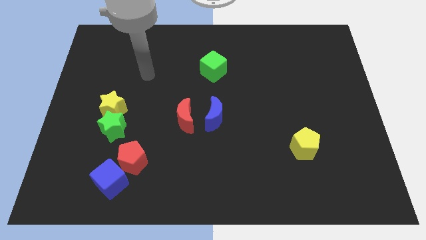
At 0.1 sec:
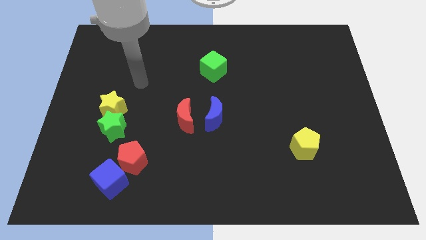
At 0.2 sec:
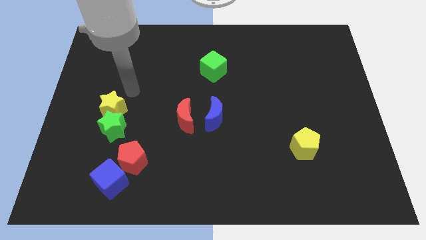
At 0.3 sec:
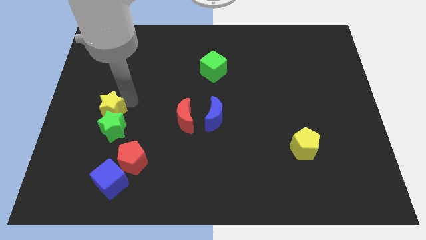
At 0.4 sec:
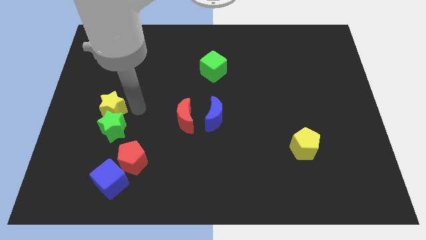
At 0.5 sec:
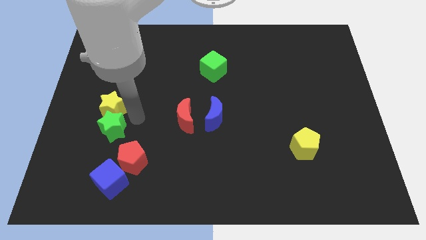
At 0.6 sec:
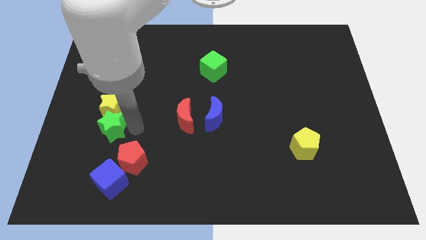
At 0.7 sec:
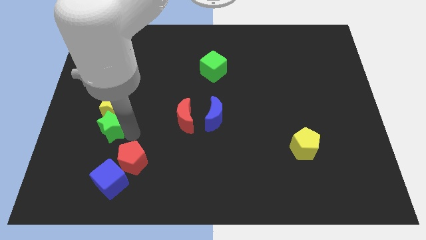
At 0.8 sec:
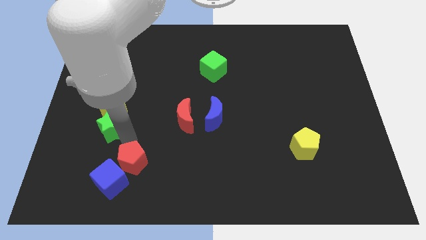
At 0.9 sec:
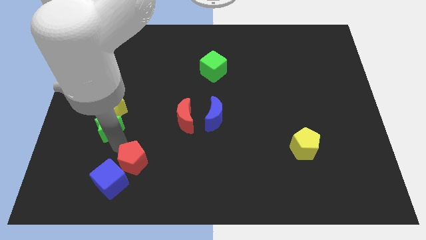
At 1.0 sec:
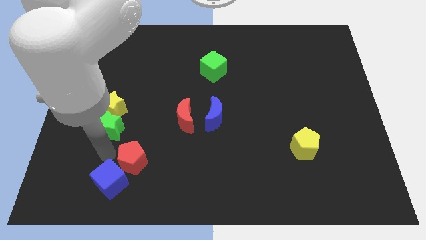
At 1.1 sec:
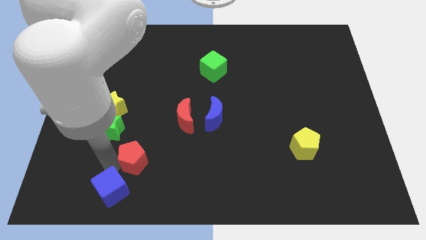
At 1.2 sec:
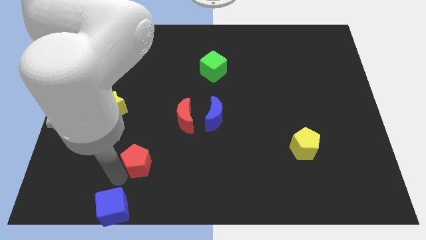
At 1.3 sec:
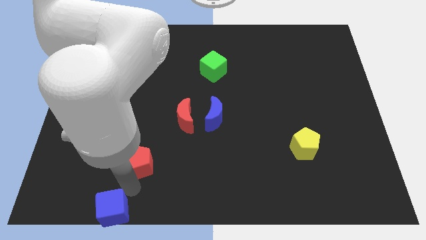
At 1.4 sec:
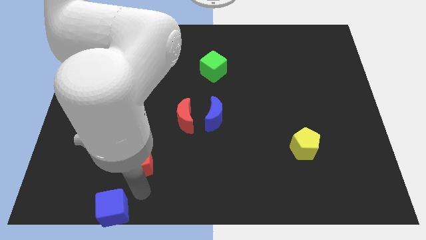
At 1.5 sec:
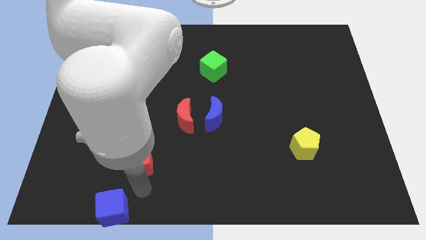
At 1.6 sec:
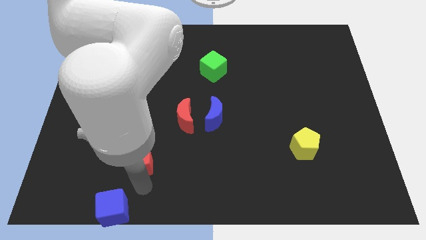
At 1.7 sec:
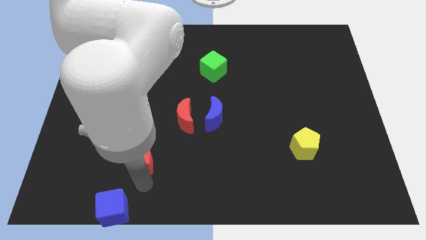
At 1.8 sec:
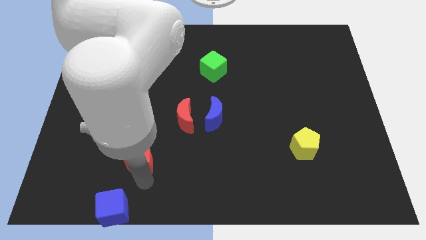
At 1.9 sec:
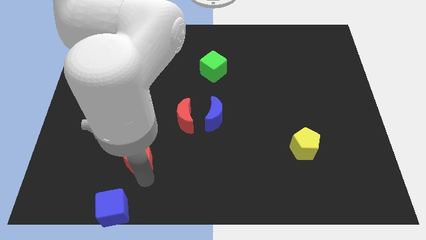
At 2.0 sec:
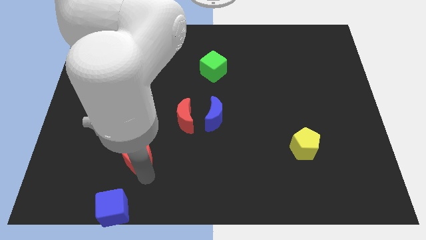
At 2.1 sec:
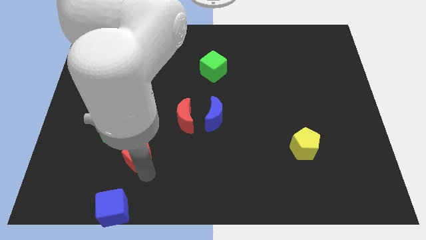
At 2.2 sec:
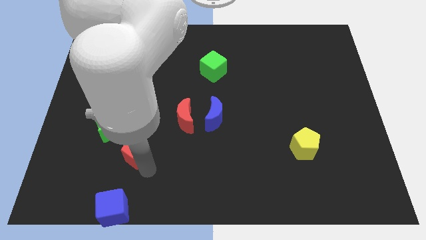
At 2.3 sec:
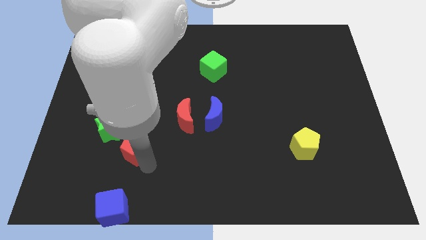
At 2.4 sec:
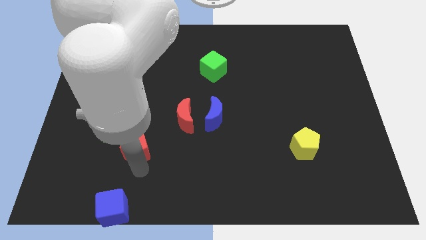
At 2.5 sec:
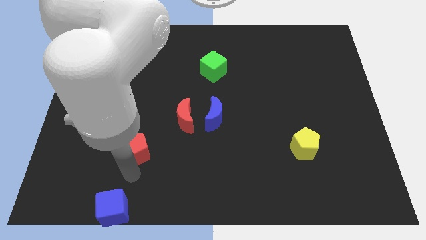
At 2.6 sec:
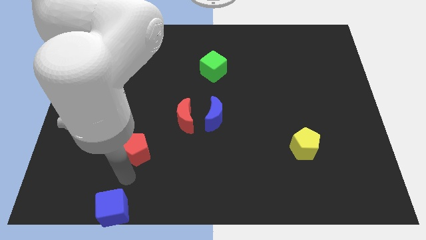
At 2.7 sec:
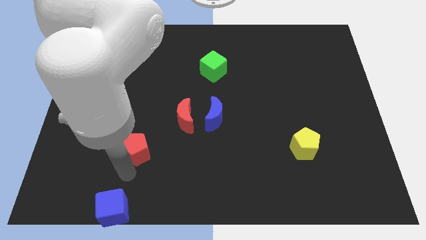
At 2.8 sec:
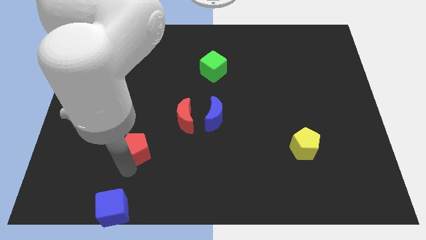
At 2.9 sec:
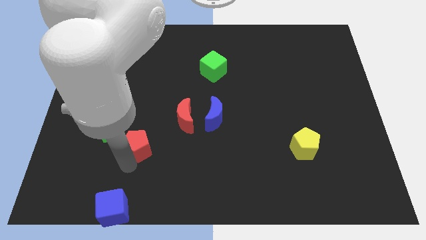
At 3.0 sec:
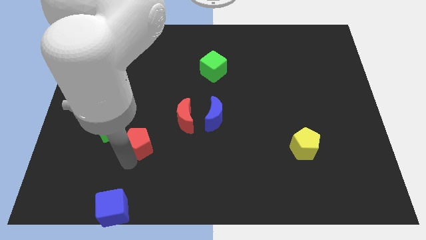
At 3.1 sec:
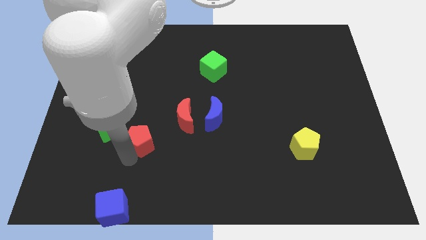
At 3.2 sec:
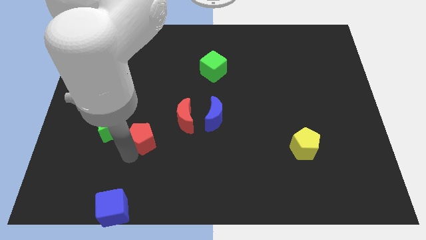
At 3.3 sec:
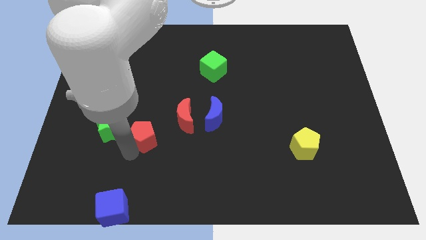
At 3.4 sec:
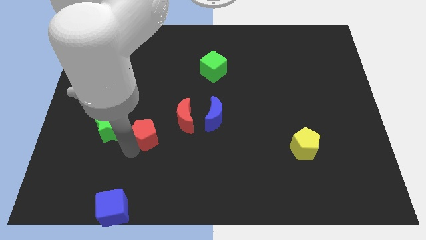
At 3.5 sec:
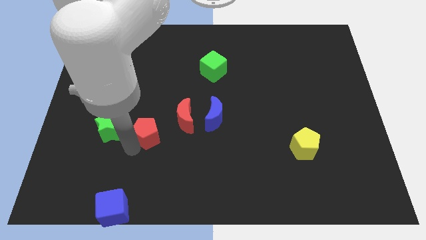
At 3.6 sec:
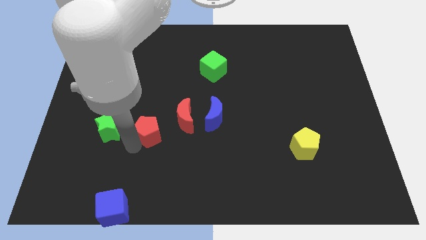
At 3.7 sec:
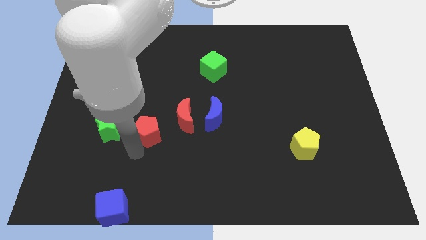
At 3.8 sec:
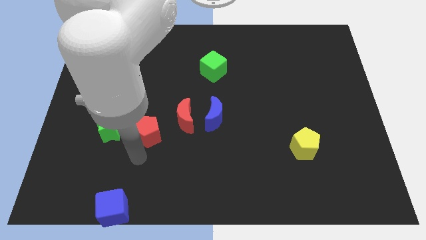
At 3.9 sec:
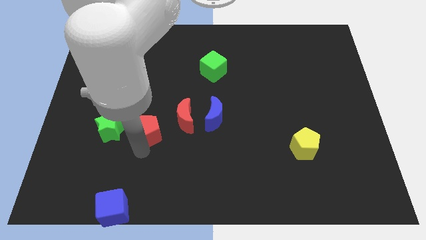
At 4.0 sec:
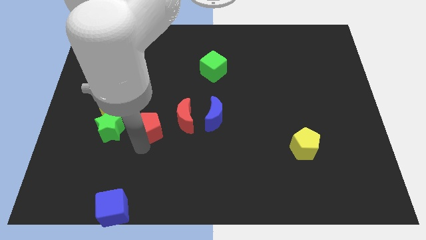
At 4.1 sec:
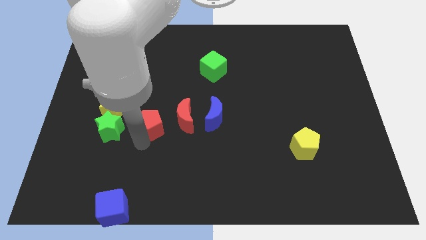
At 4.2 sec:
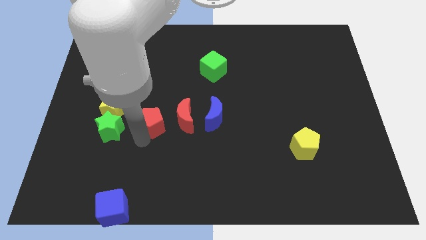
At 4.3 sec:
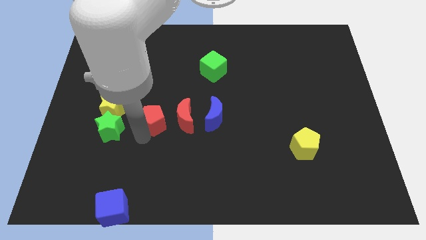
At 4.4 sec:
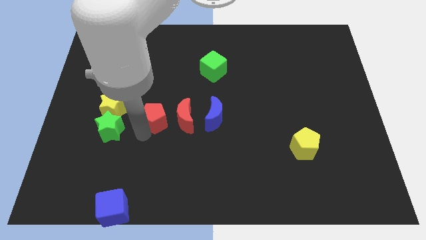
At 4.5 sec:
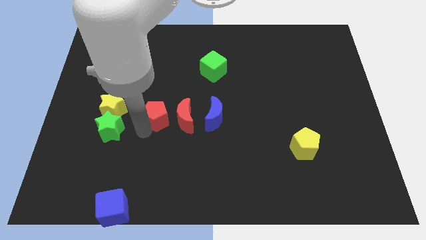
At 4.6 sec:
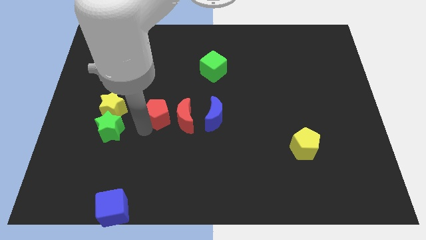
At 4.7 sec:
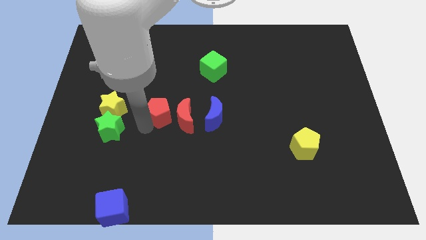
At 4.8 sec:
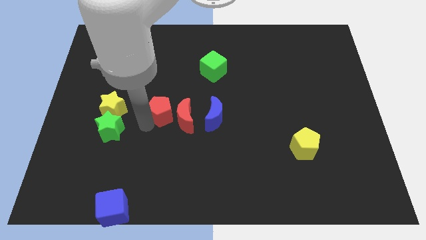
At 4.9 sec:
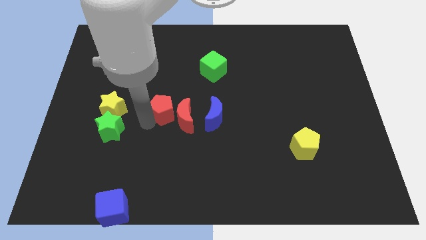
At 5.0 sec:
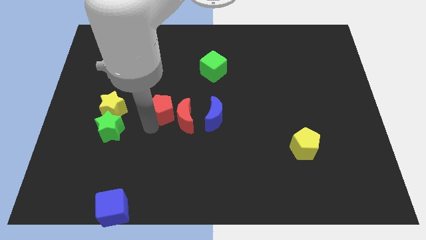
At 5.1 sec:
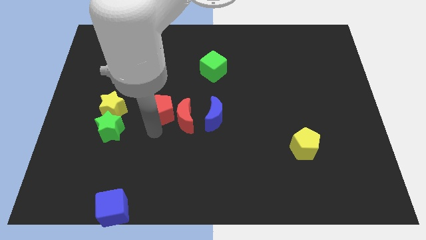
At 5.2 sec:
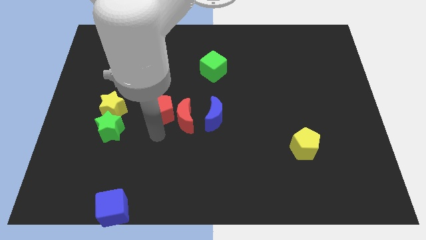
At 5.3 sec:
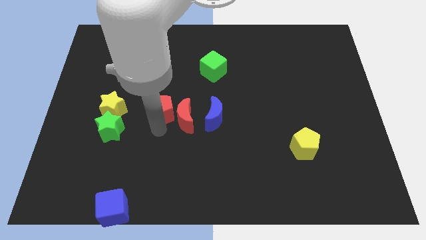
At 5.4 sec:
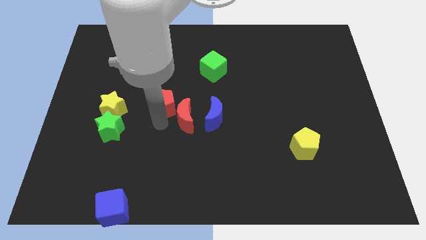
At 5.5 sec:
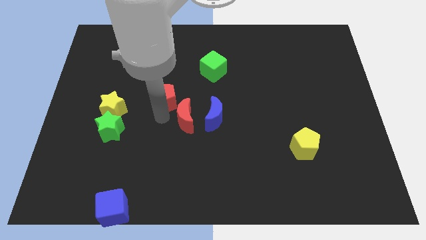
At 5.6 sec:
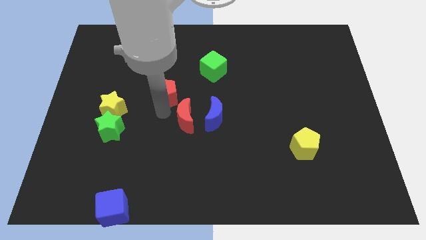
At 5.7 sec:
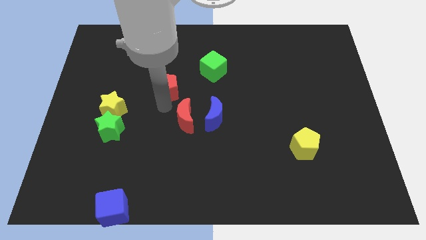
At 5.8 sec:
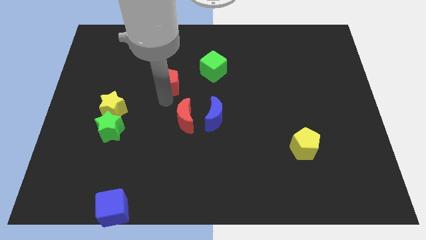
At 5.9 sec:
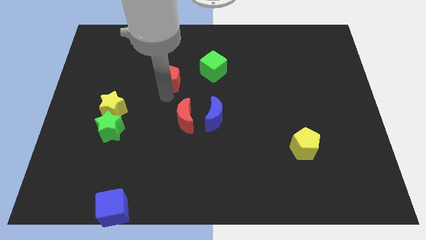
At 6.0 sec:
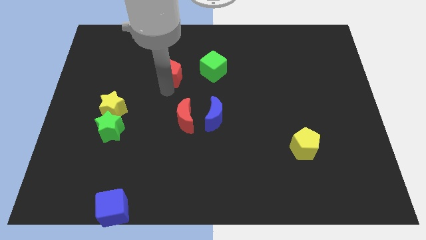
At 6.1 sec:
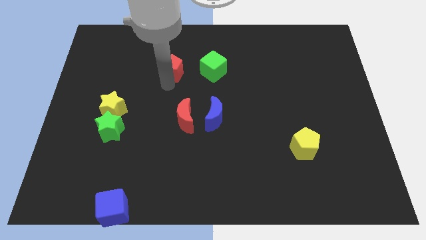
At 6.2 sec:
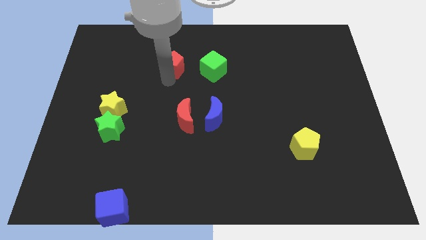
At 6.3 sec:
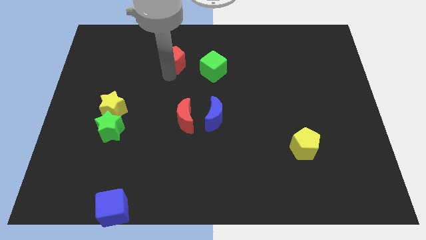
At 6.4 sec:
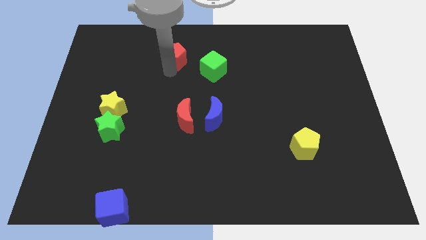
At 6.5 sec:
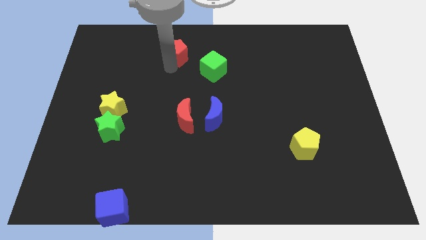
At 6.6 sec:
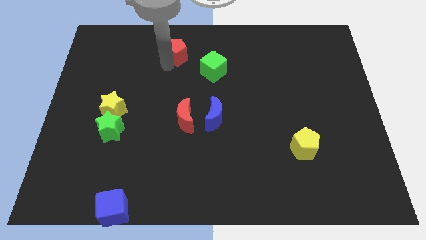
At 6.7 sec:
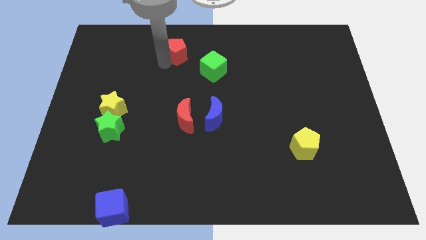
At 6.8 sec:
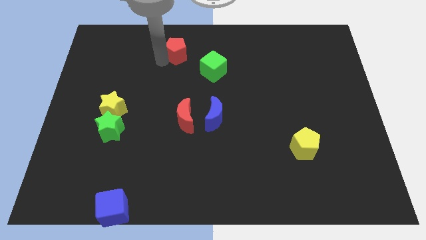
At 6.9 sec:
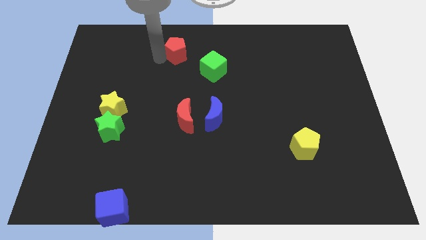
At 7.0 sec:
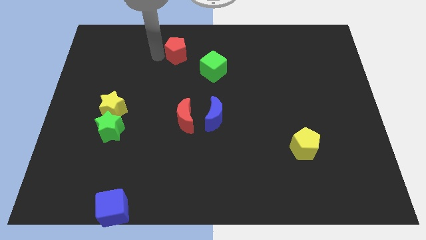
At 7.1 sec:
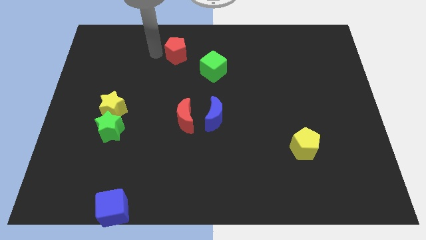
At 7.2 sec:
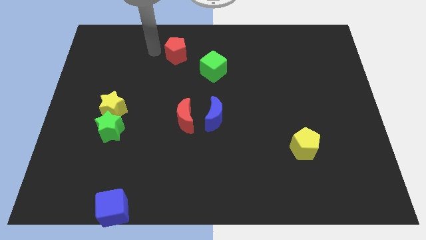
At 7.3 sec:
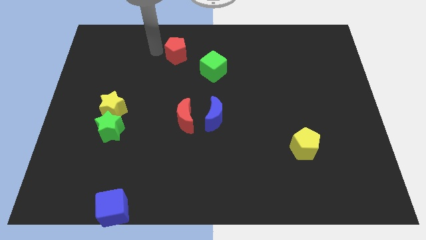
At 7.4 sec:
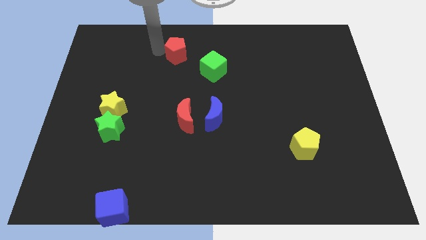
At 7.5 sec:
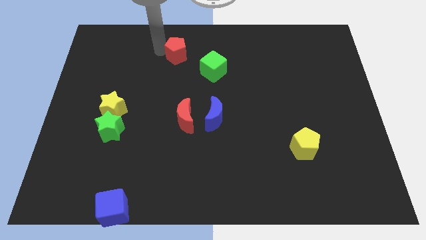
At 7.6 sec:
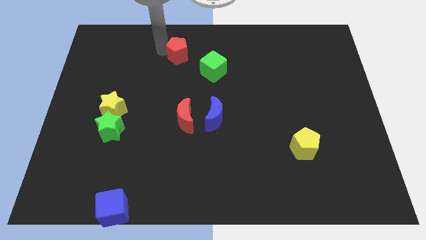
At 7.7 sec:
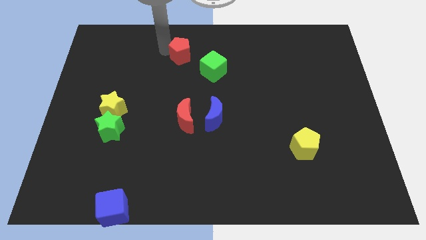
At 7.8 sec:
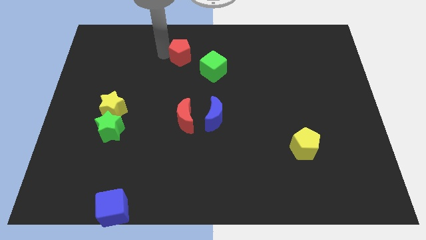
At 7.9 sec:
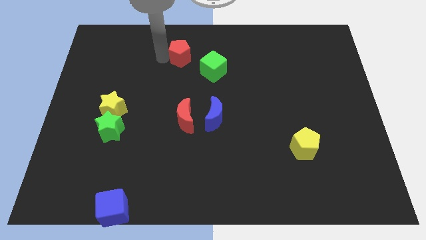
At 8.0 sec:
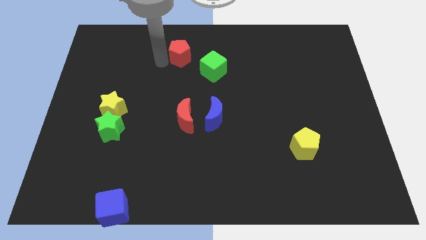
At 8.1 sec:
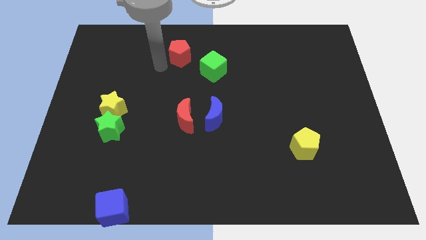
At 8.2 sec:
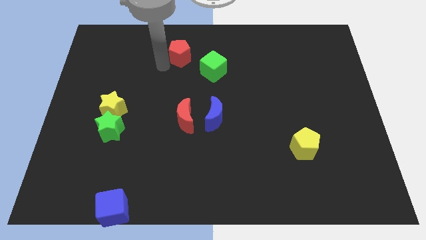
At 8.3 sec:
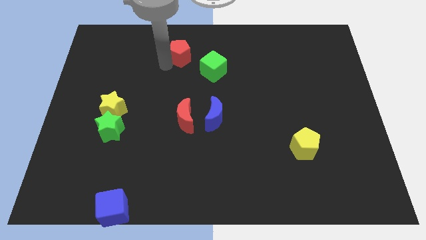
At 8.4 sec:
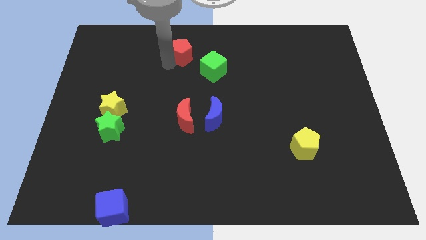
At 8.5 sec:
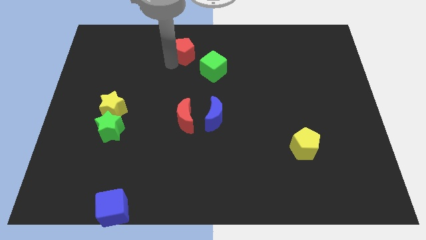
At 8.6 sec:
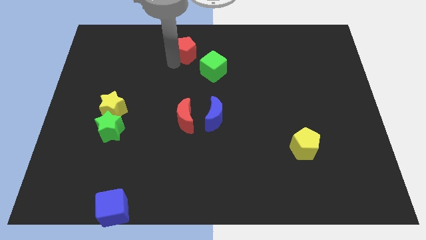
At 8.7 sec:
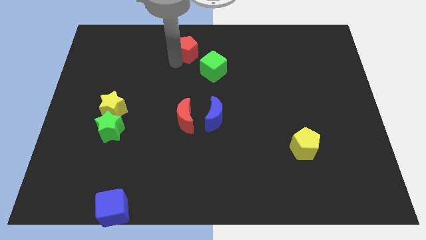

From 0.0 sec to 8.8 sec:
put the red pentagon to the towards your base
